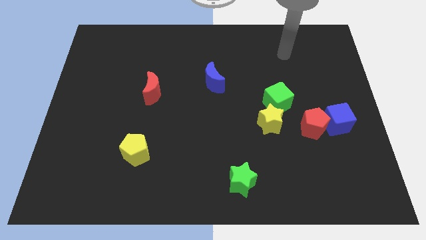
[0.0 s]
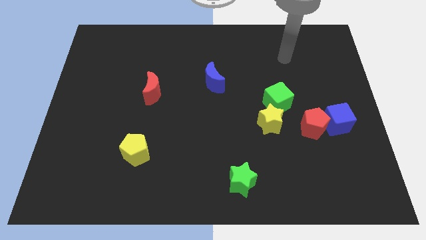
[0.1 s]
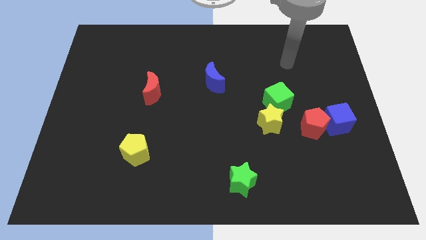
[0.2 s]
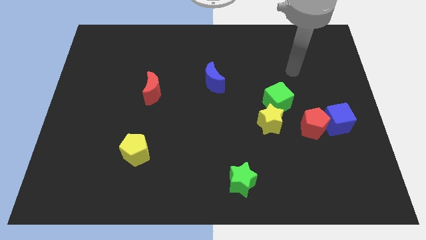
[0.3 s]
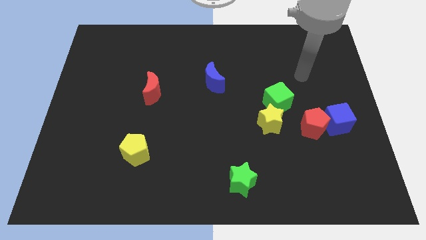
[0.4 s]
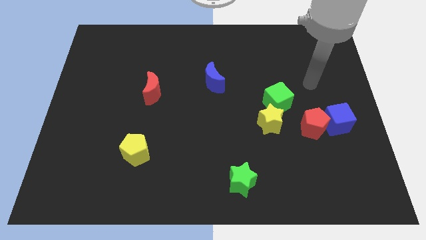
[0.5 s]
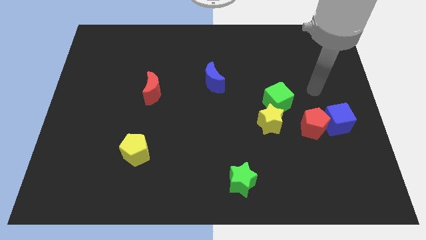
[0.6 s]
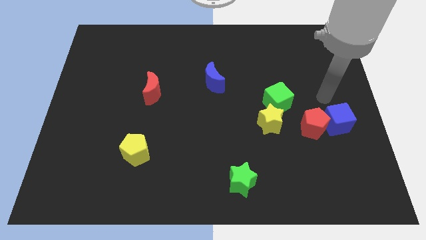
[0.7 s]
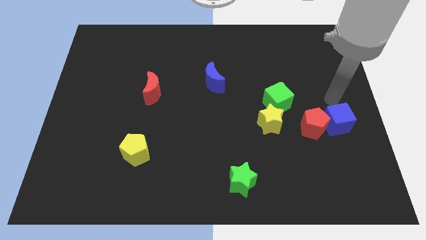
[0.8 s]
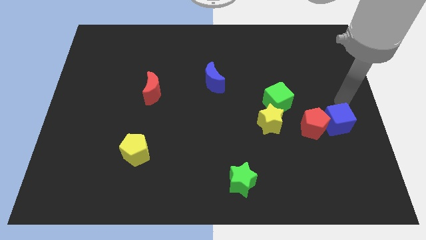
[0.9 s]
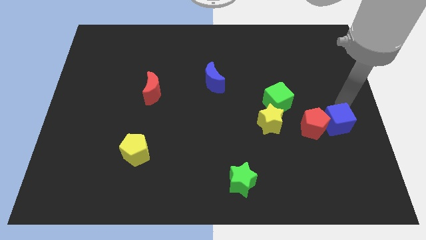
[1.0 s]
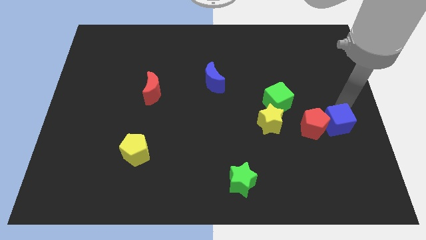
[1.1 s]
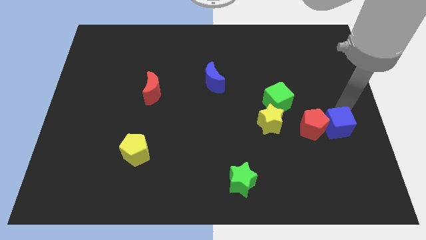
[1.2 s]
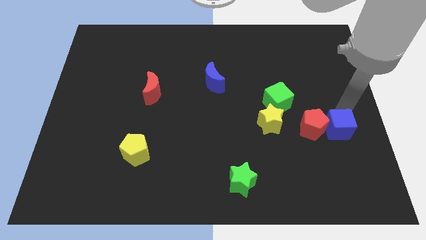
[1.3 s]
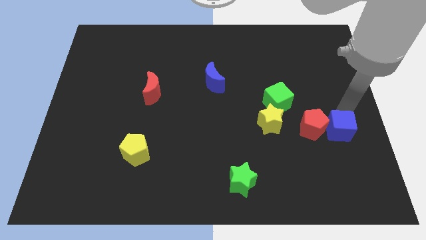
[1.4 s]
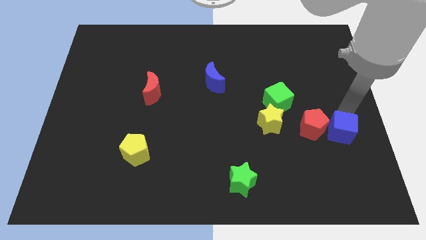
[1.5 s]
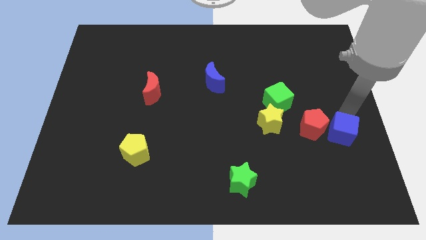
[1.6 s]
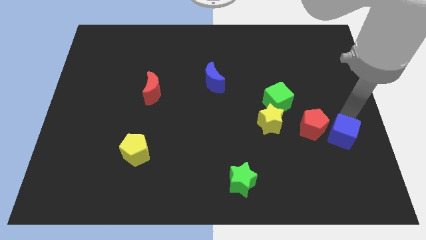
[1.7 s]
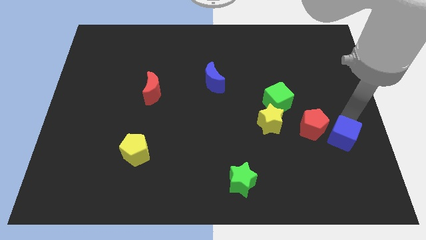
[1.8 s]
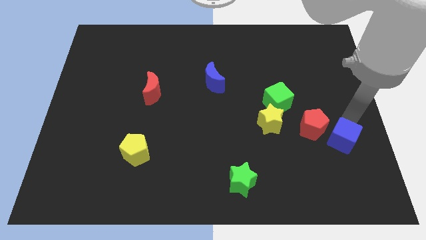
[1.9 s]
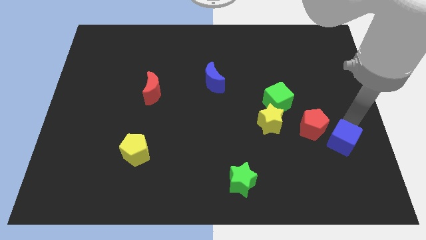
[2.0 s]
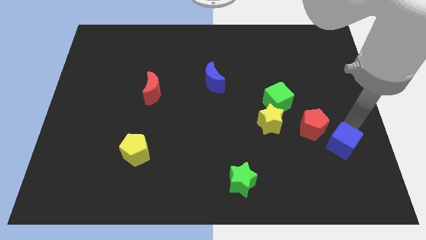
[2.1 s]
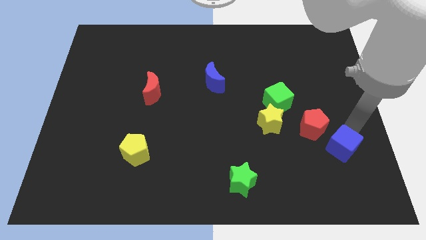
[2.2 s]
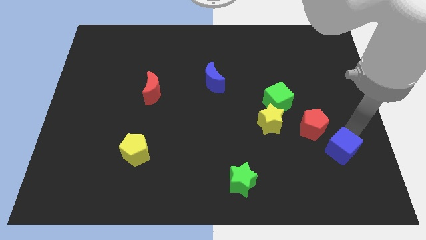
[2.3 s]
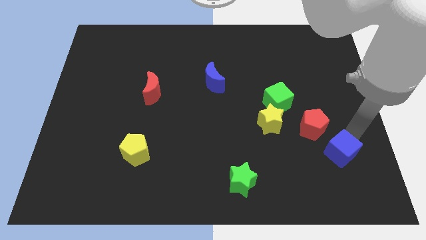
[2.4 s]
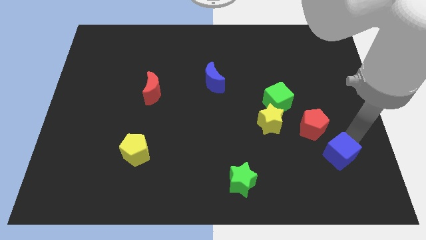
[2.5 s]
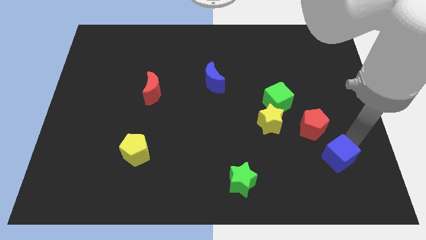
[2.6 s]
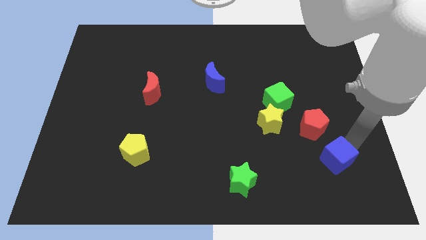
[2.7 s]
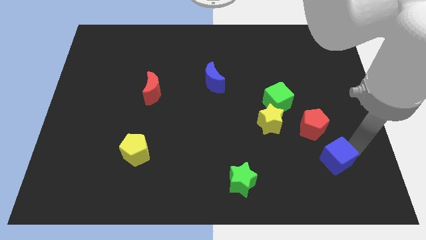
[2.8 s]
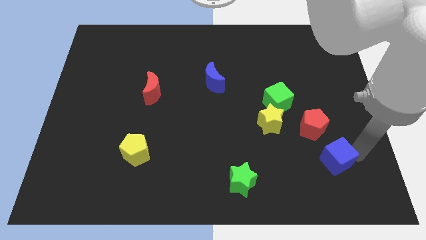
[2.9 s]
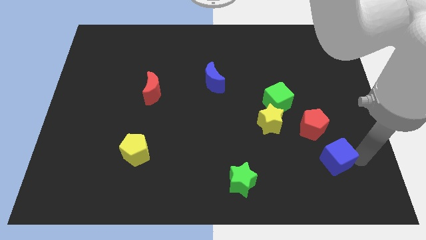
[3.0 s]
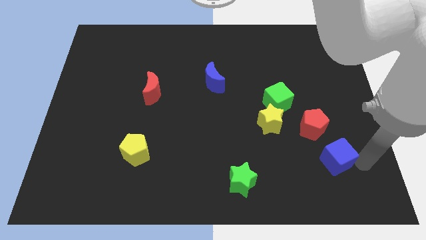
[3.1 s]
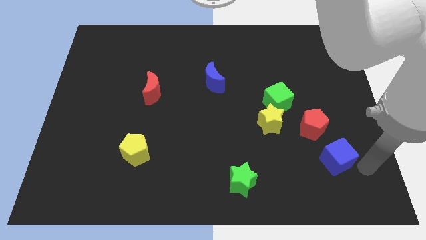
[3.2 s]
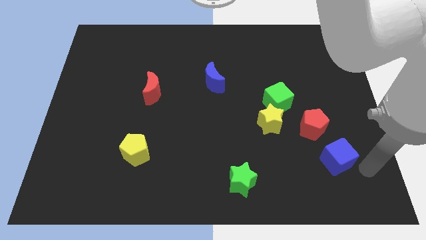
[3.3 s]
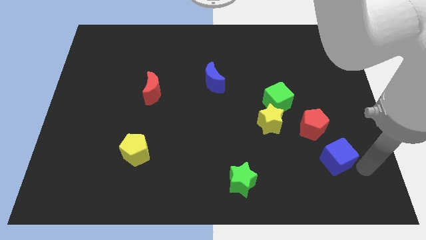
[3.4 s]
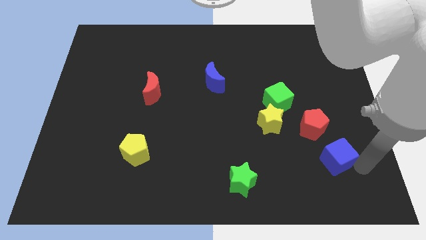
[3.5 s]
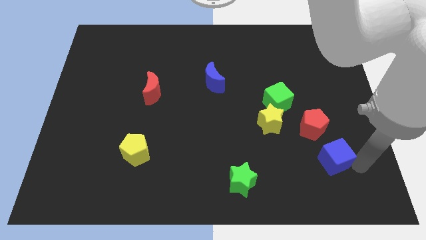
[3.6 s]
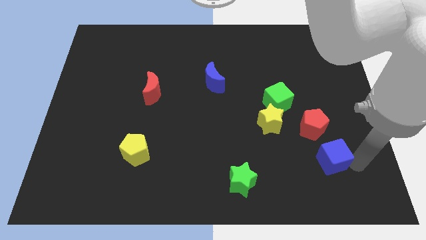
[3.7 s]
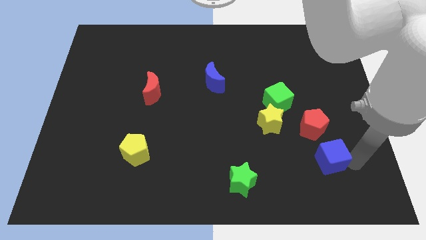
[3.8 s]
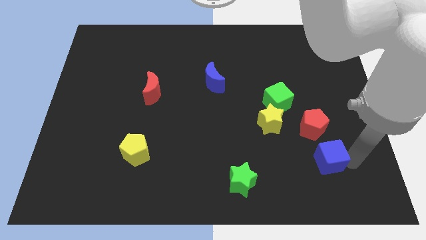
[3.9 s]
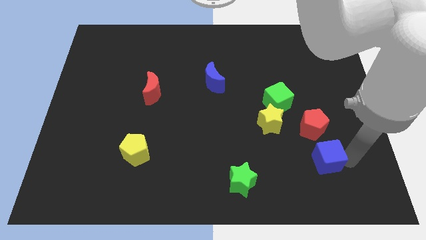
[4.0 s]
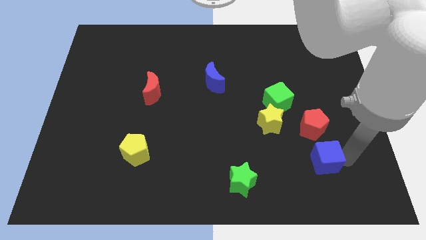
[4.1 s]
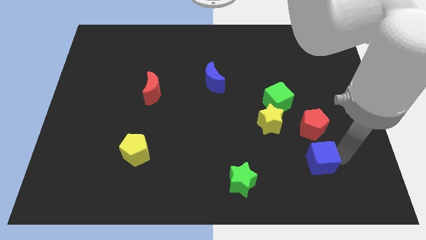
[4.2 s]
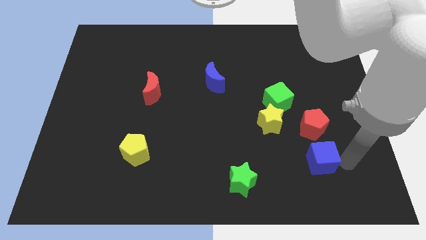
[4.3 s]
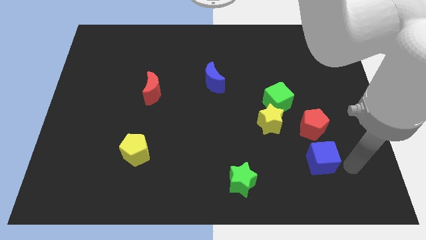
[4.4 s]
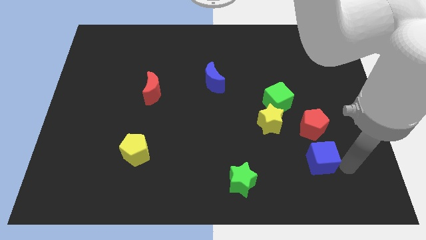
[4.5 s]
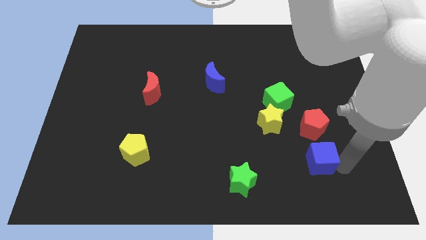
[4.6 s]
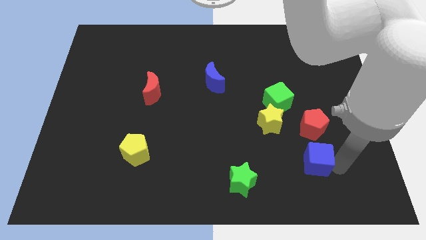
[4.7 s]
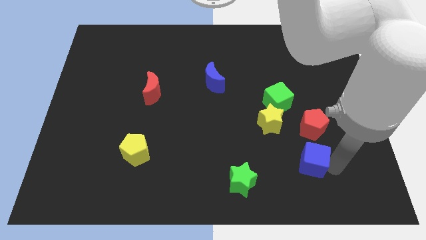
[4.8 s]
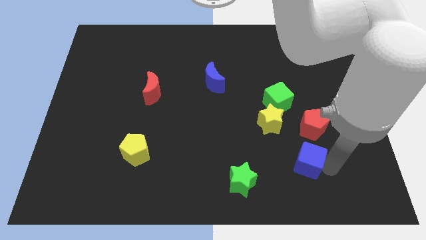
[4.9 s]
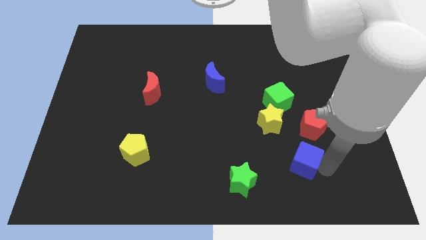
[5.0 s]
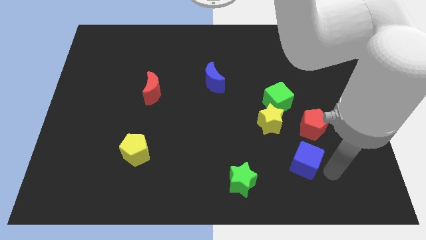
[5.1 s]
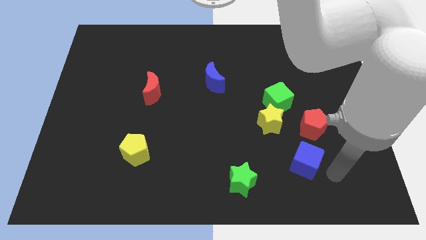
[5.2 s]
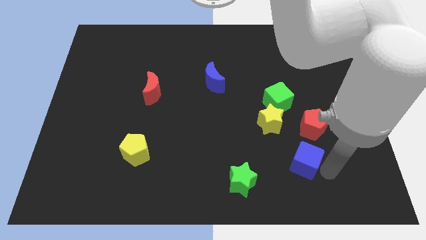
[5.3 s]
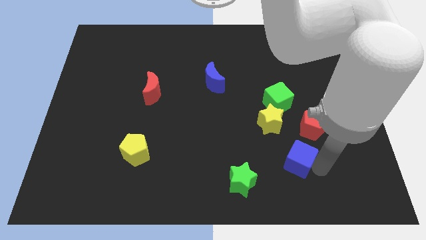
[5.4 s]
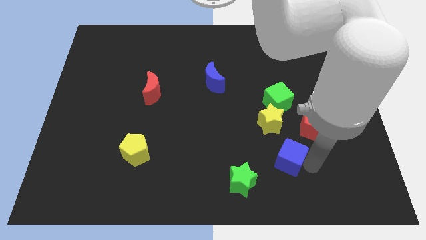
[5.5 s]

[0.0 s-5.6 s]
move the blue cube left a bit

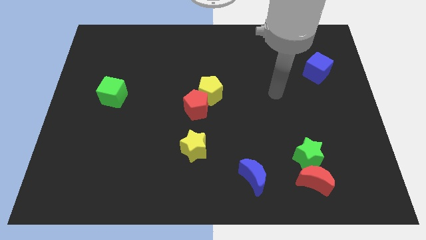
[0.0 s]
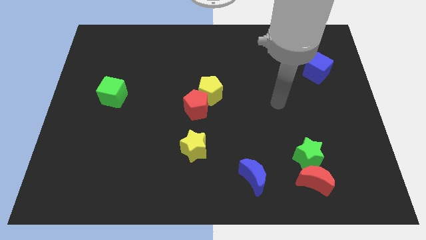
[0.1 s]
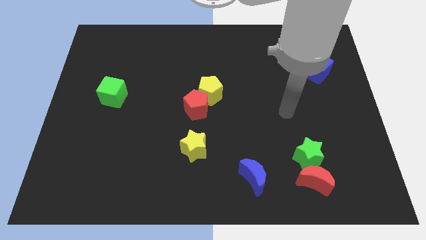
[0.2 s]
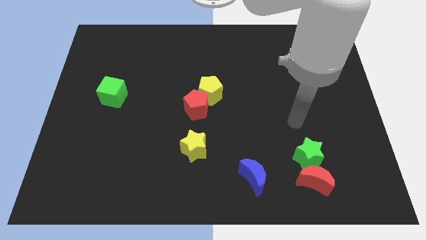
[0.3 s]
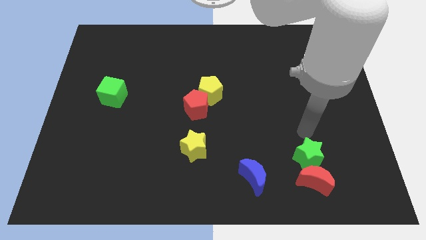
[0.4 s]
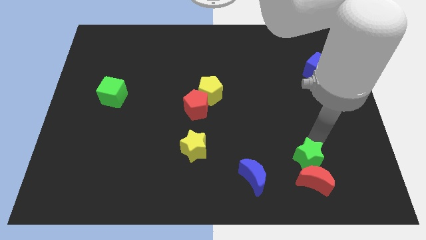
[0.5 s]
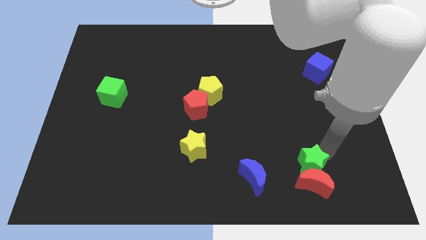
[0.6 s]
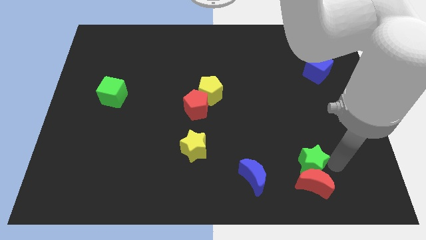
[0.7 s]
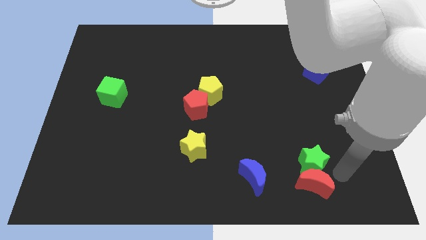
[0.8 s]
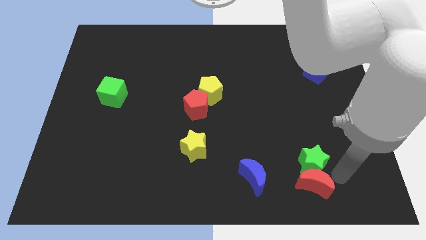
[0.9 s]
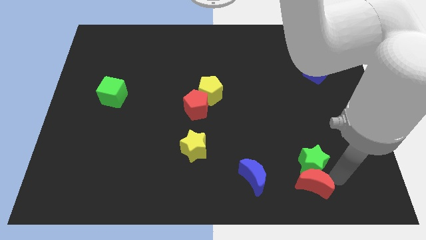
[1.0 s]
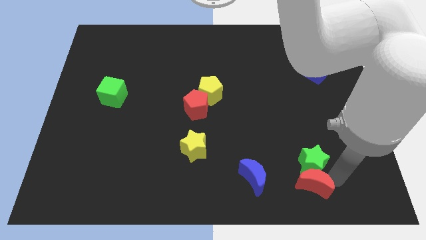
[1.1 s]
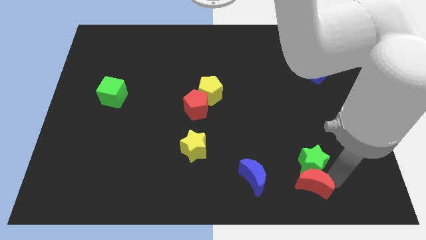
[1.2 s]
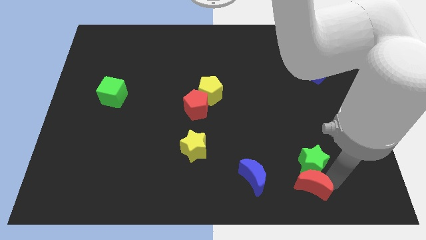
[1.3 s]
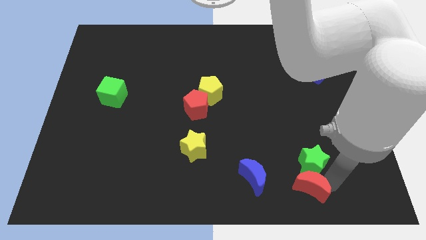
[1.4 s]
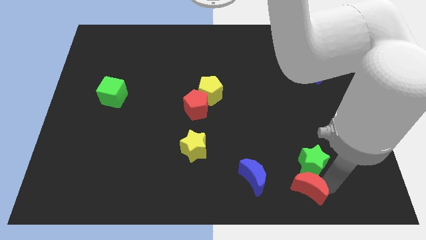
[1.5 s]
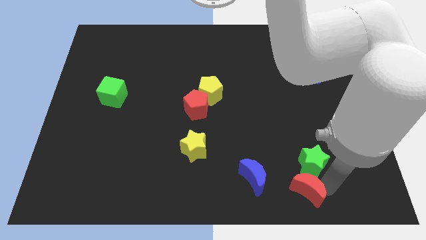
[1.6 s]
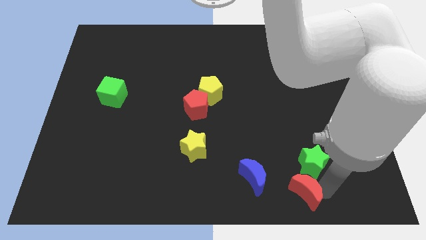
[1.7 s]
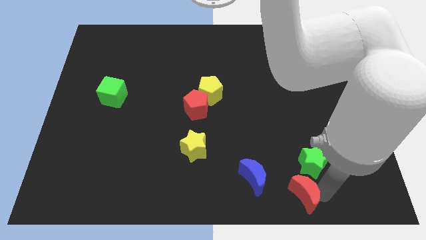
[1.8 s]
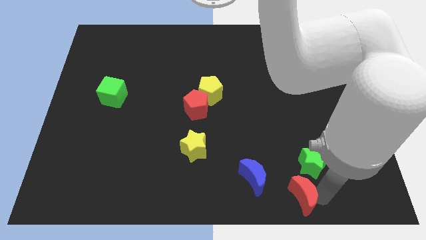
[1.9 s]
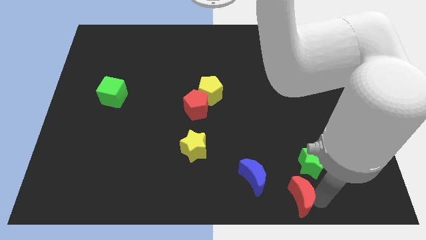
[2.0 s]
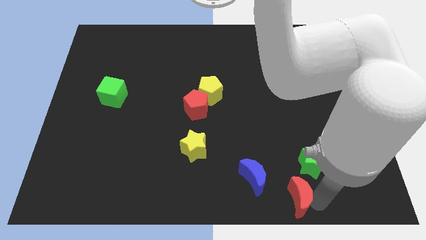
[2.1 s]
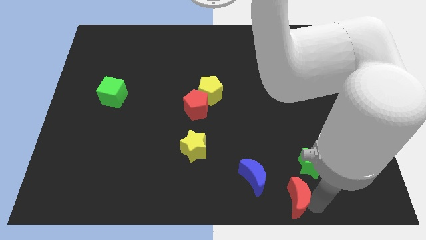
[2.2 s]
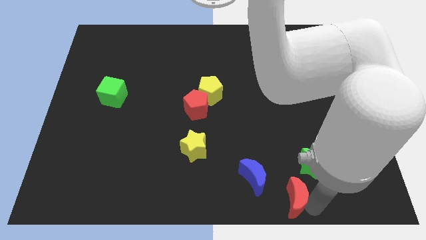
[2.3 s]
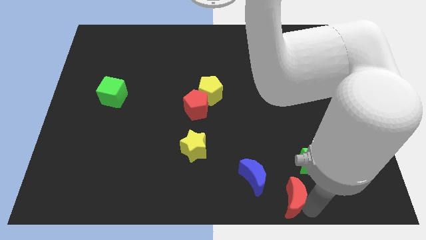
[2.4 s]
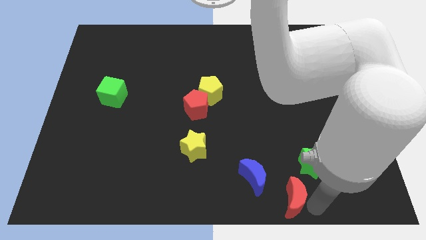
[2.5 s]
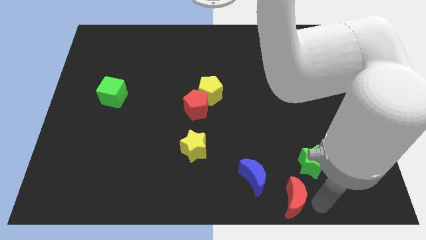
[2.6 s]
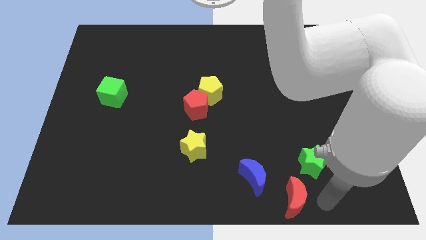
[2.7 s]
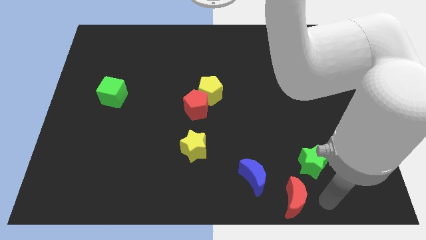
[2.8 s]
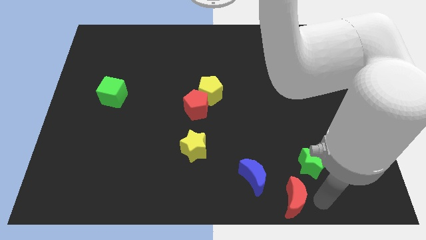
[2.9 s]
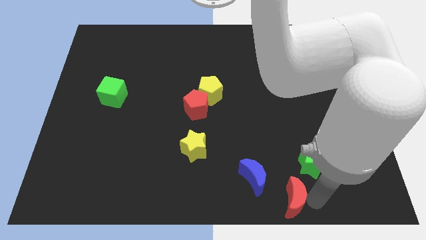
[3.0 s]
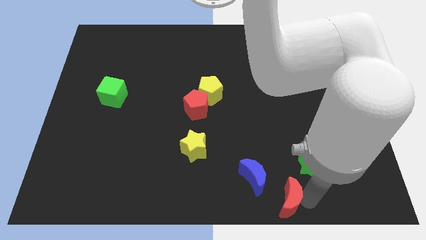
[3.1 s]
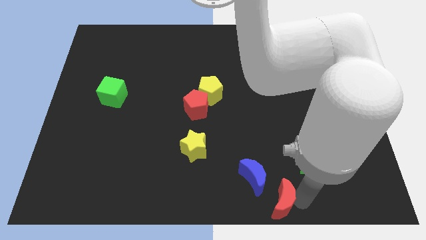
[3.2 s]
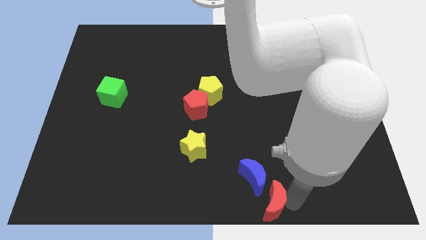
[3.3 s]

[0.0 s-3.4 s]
slide the red moon left a little bit
